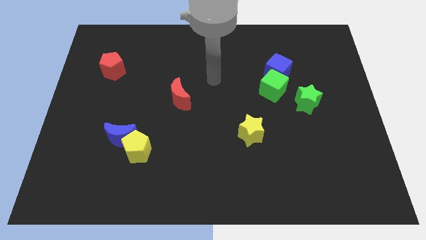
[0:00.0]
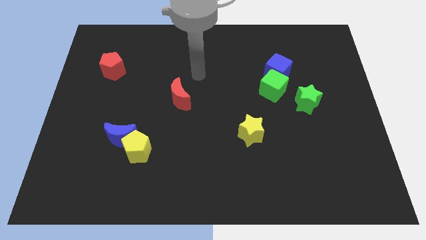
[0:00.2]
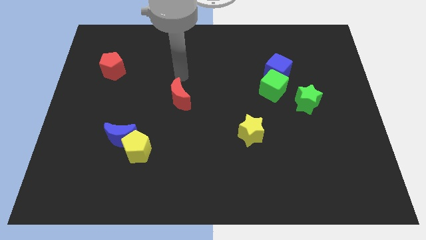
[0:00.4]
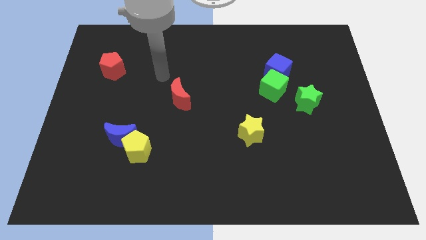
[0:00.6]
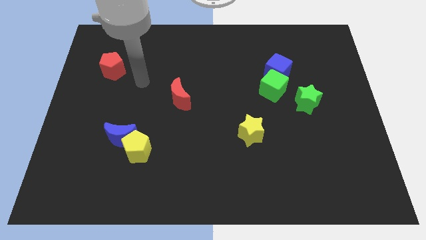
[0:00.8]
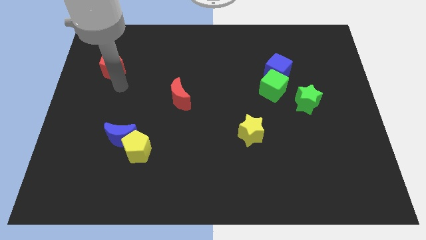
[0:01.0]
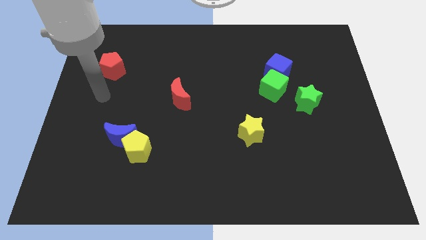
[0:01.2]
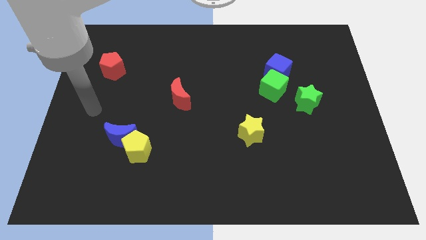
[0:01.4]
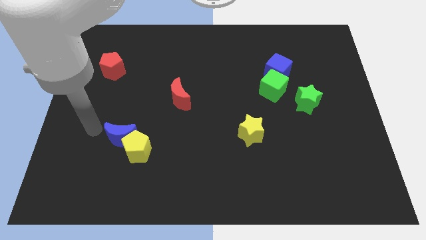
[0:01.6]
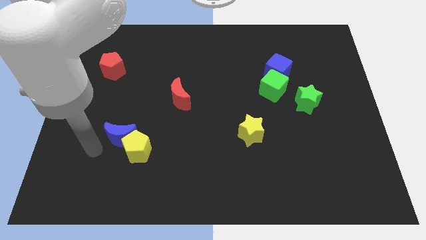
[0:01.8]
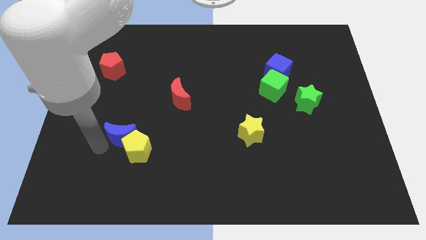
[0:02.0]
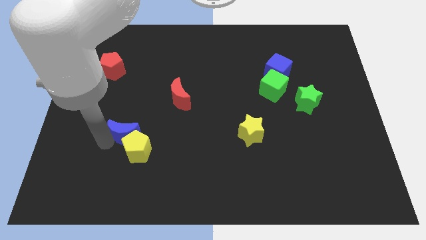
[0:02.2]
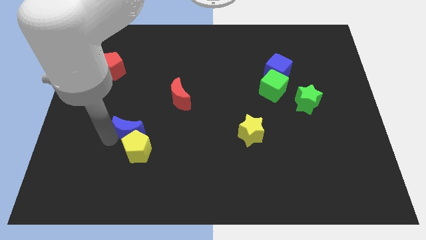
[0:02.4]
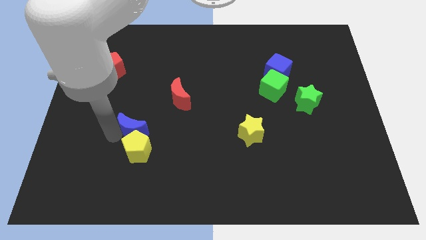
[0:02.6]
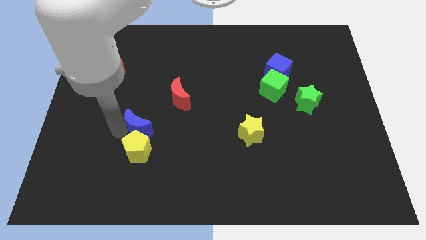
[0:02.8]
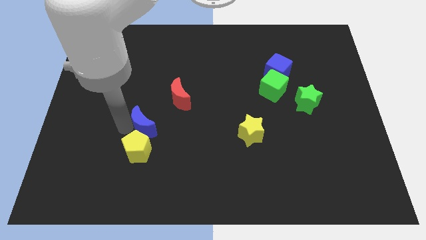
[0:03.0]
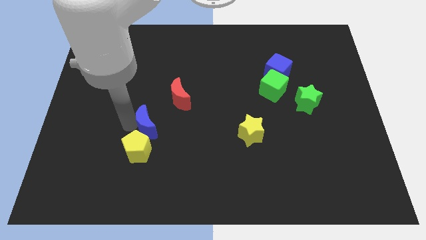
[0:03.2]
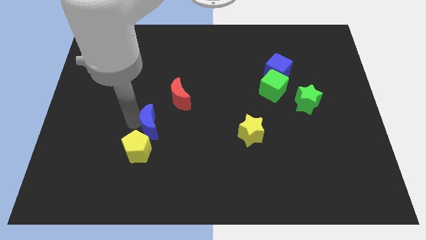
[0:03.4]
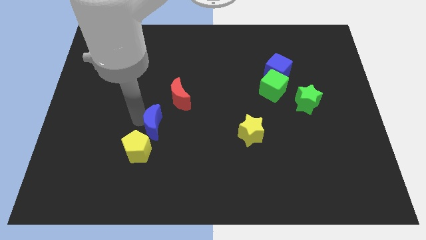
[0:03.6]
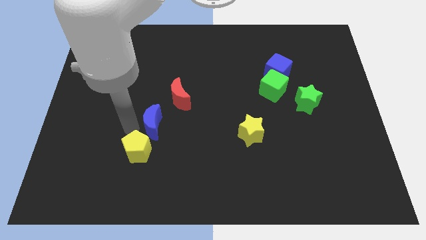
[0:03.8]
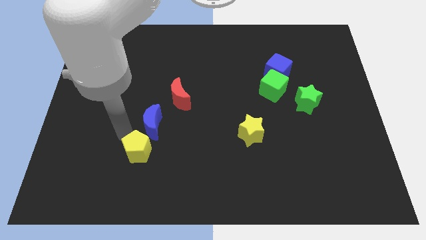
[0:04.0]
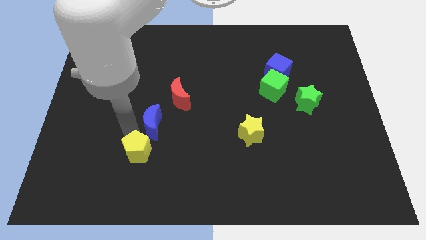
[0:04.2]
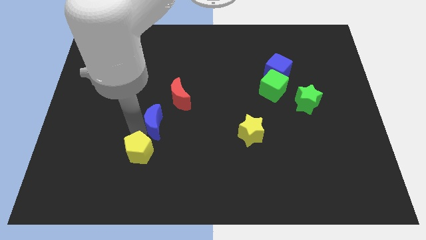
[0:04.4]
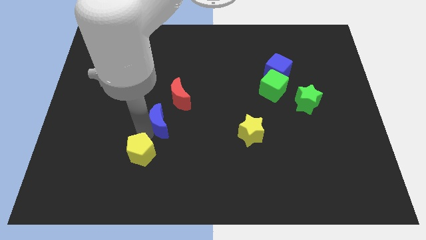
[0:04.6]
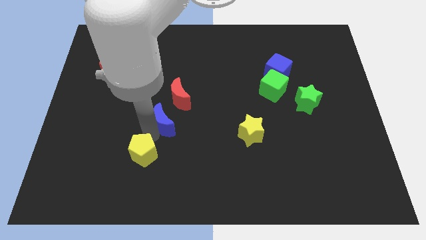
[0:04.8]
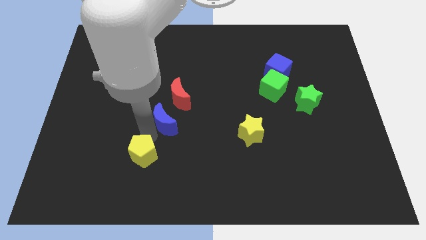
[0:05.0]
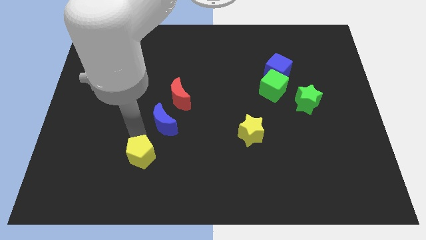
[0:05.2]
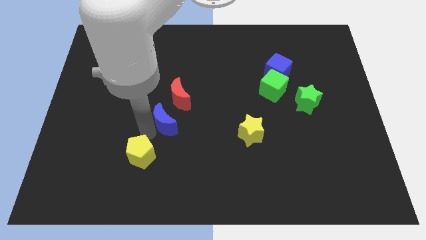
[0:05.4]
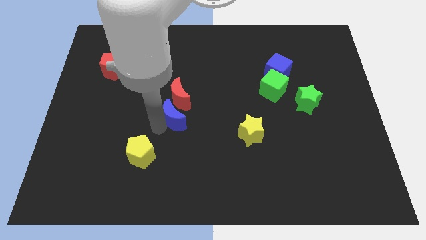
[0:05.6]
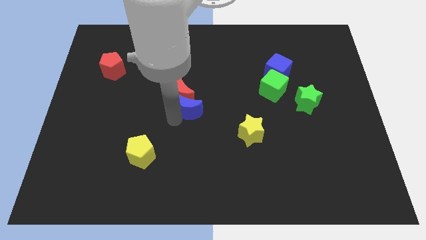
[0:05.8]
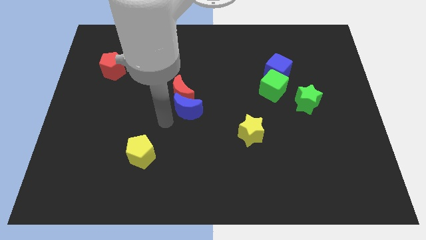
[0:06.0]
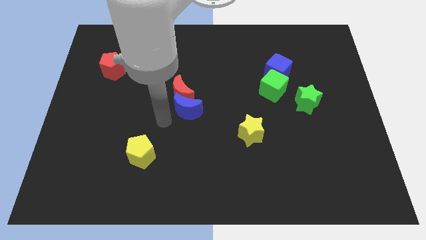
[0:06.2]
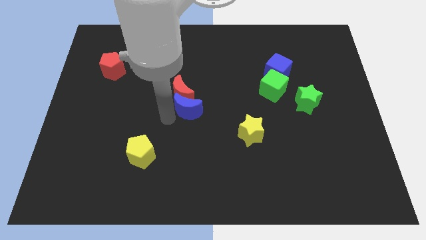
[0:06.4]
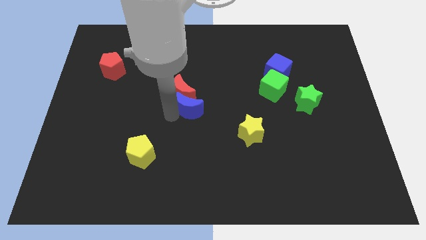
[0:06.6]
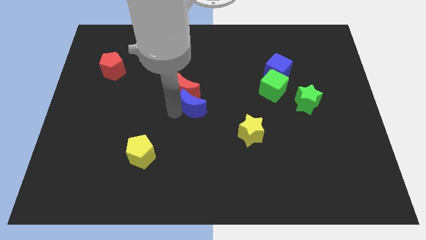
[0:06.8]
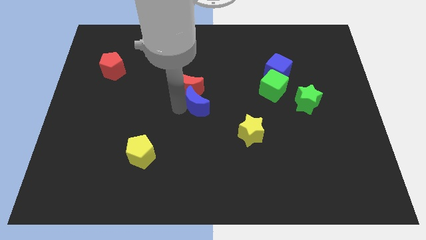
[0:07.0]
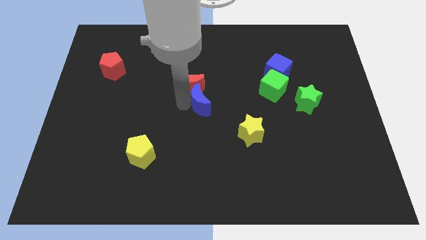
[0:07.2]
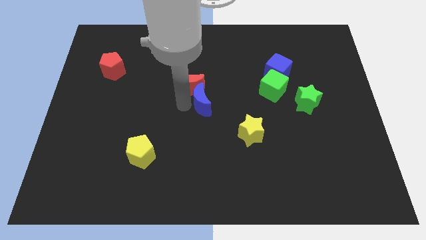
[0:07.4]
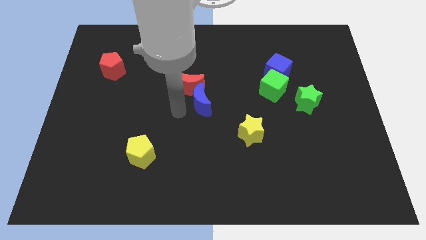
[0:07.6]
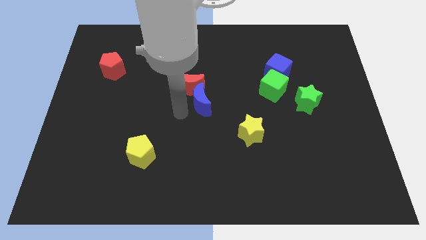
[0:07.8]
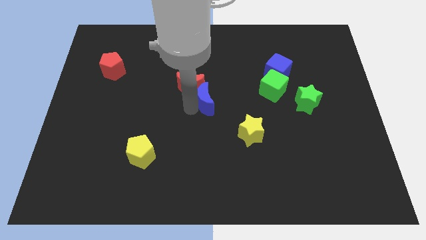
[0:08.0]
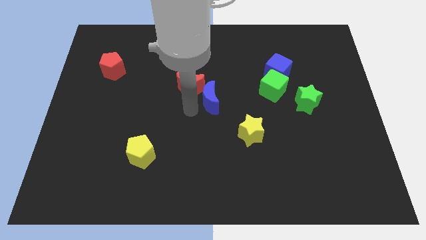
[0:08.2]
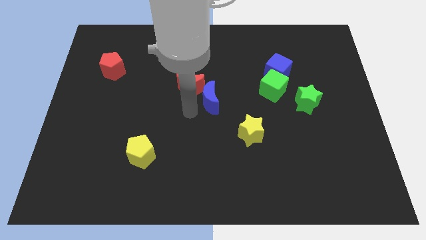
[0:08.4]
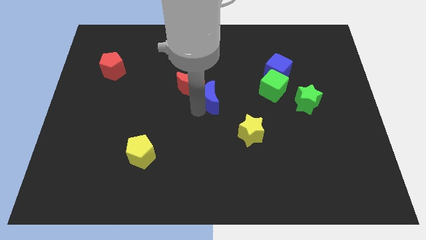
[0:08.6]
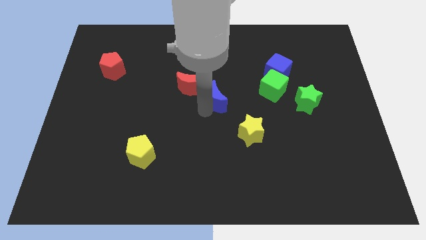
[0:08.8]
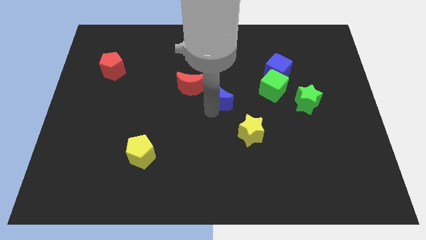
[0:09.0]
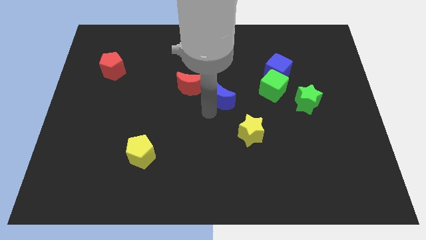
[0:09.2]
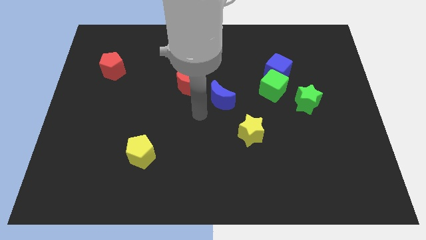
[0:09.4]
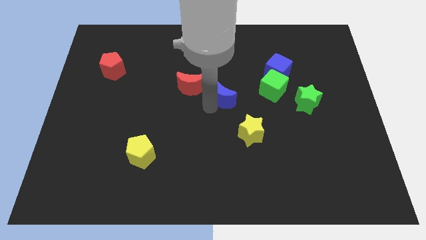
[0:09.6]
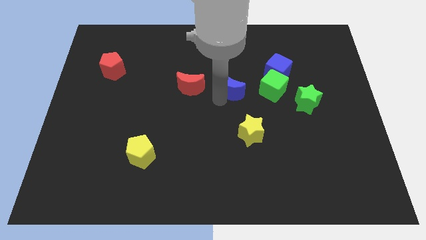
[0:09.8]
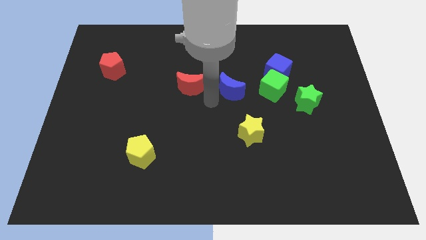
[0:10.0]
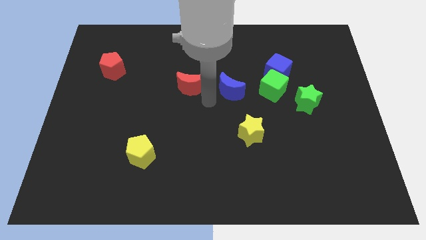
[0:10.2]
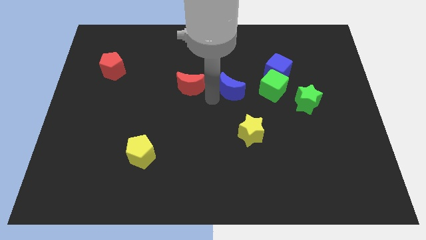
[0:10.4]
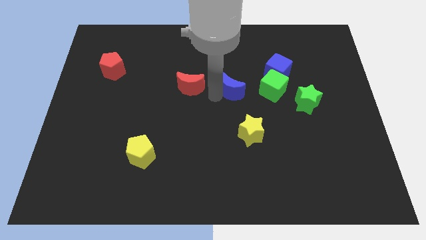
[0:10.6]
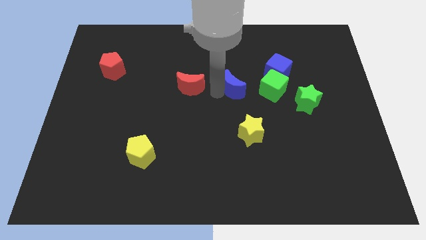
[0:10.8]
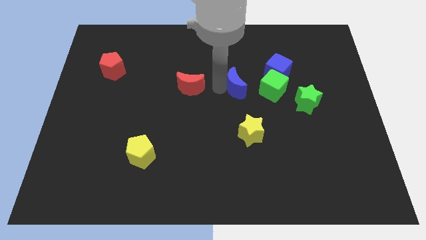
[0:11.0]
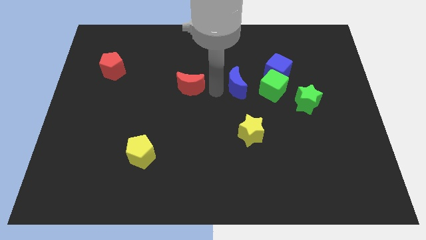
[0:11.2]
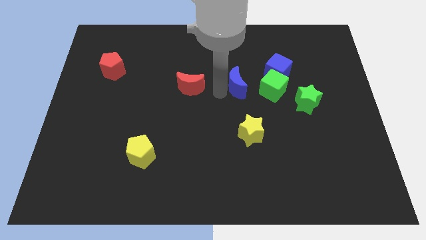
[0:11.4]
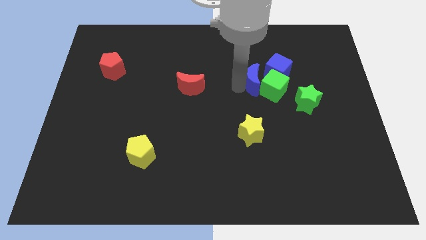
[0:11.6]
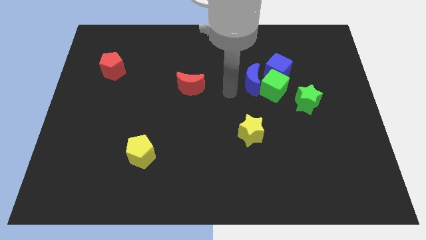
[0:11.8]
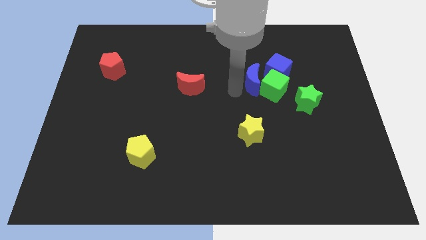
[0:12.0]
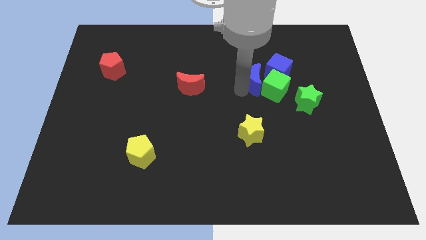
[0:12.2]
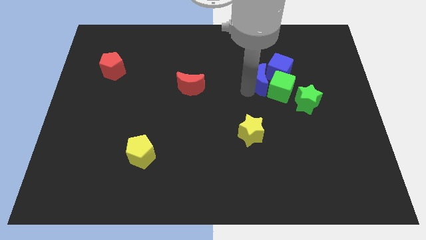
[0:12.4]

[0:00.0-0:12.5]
slide the blue moon next to the blue cube

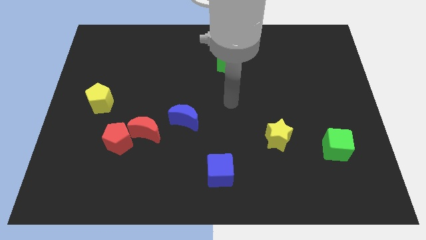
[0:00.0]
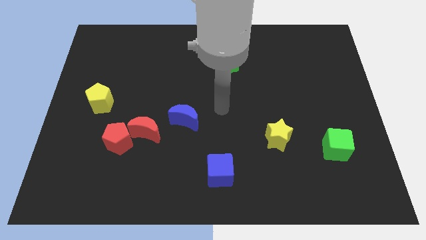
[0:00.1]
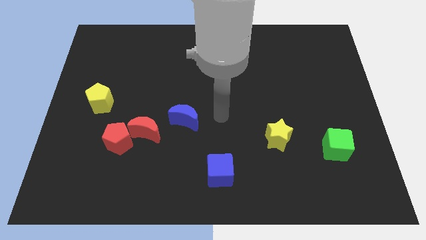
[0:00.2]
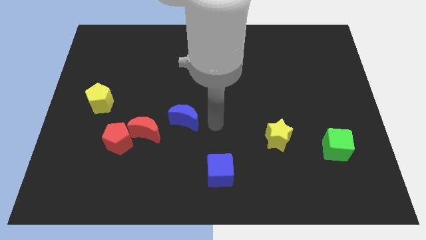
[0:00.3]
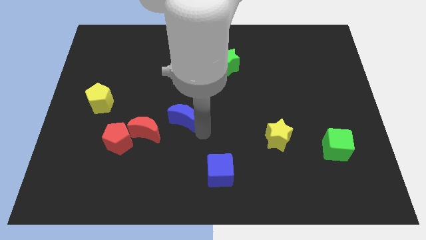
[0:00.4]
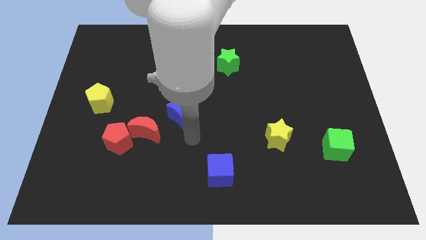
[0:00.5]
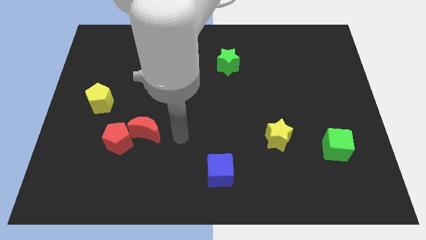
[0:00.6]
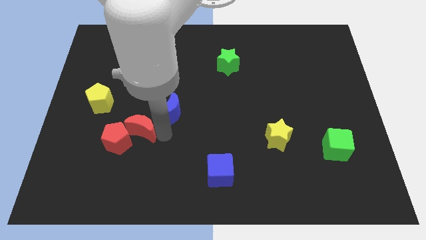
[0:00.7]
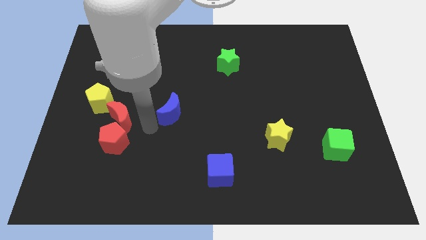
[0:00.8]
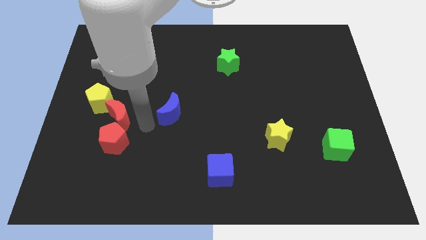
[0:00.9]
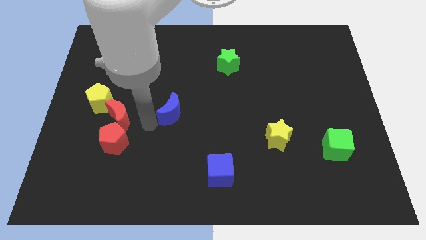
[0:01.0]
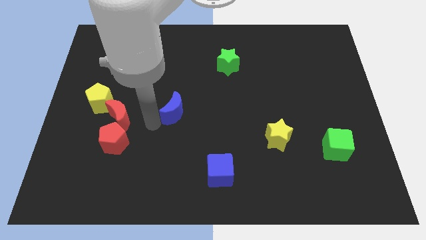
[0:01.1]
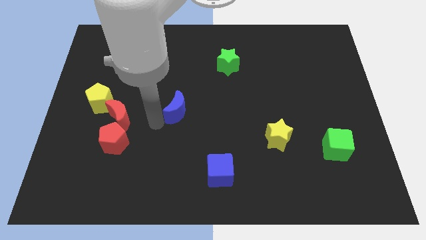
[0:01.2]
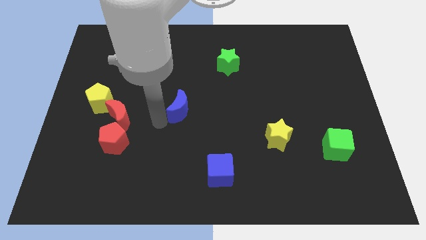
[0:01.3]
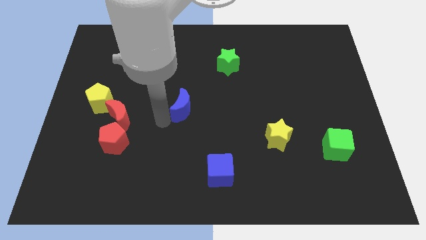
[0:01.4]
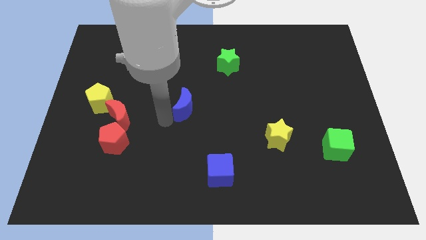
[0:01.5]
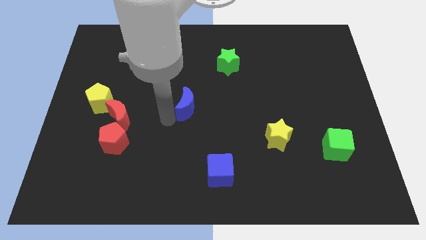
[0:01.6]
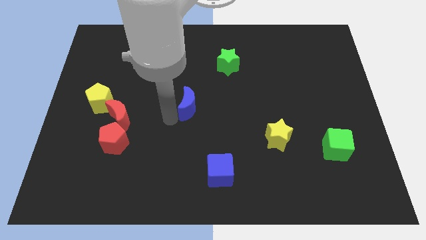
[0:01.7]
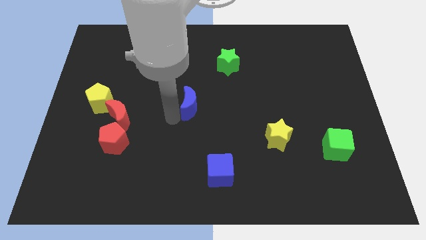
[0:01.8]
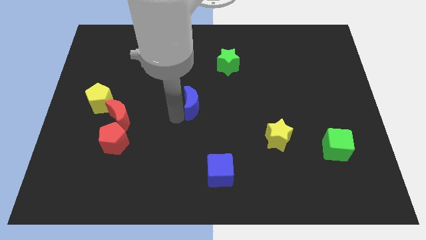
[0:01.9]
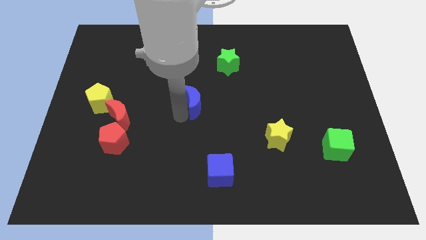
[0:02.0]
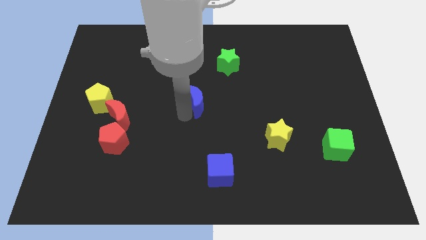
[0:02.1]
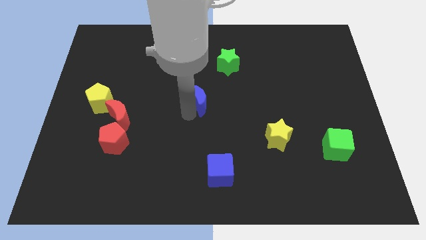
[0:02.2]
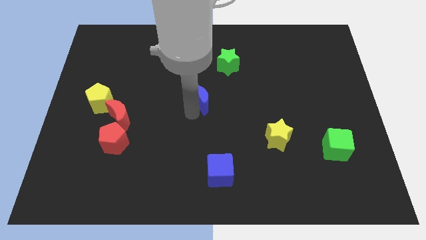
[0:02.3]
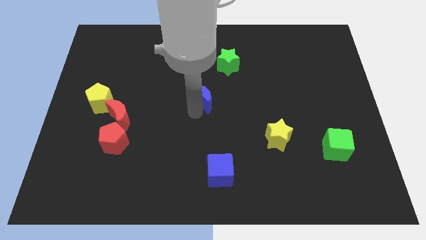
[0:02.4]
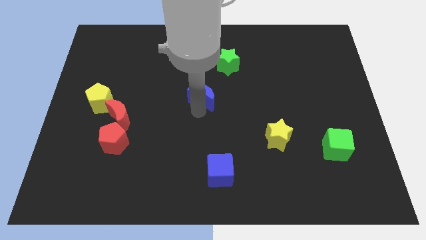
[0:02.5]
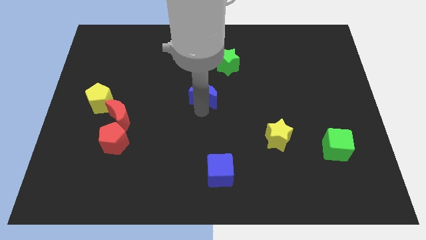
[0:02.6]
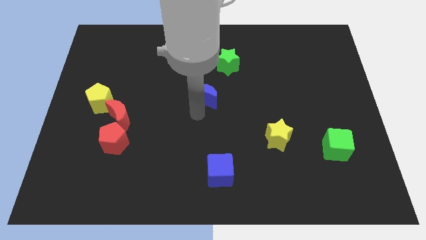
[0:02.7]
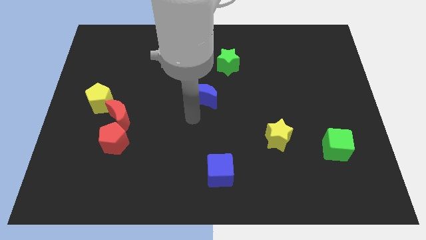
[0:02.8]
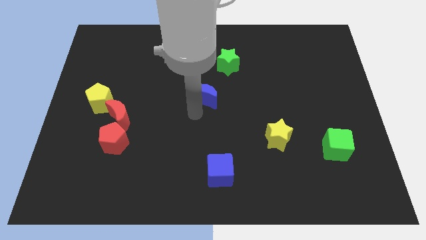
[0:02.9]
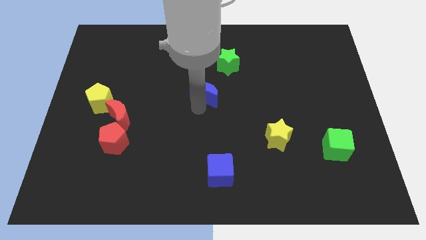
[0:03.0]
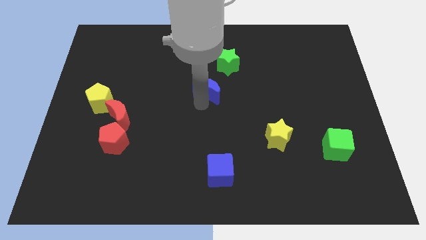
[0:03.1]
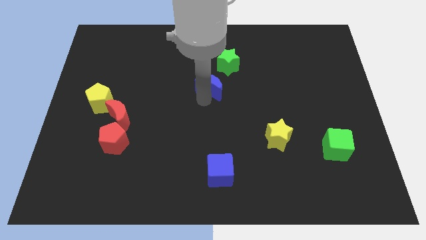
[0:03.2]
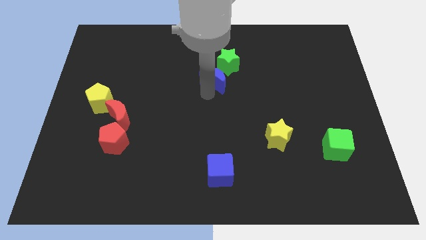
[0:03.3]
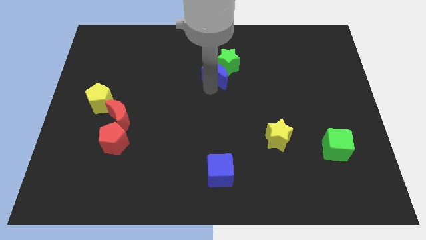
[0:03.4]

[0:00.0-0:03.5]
push the blue moon next to the green star
